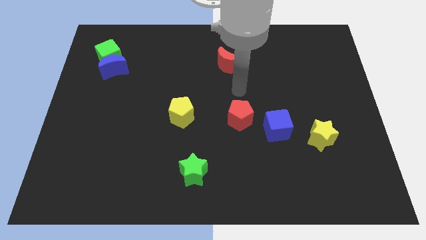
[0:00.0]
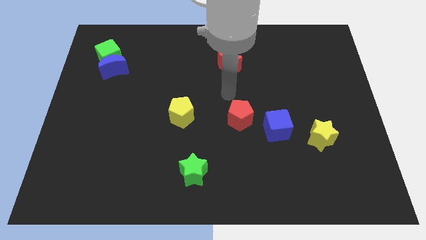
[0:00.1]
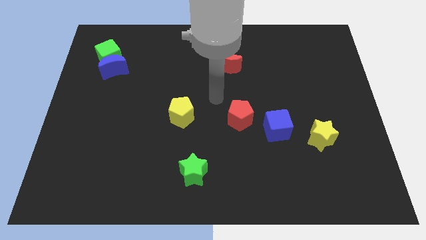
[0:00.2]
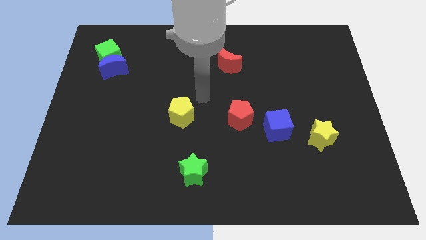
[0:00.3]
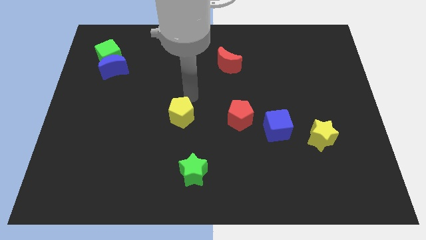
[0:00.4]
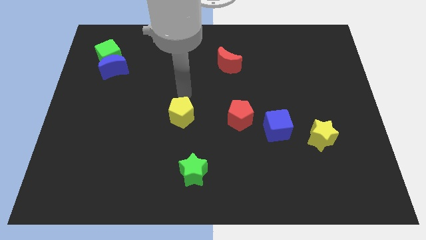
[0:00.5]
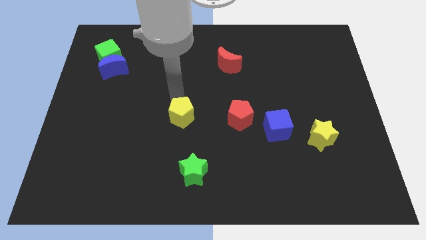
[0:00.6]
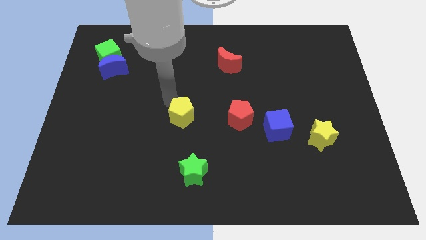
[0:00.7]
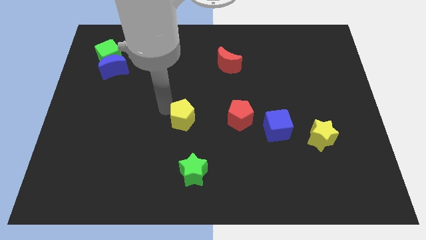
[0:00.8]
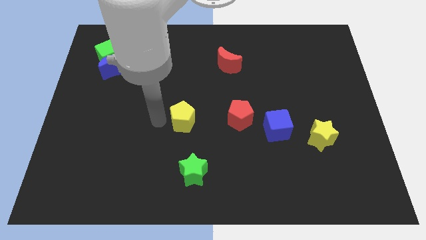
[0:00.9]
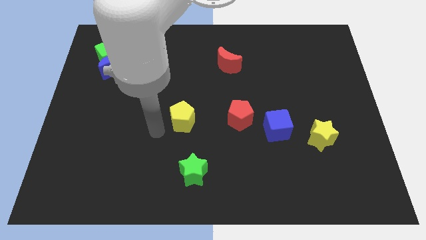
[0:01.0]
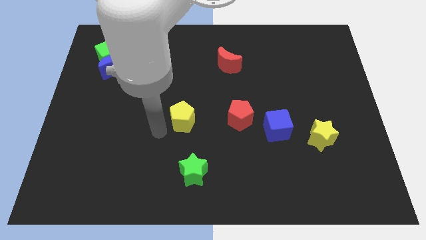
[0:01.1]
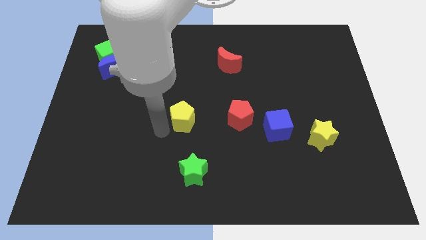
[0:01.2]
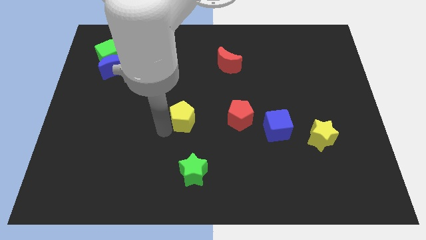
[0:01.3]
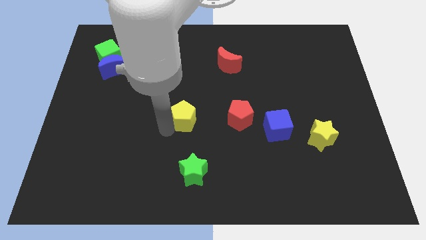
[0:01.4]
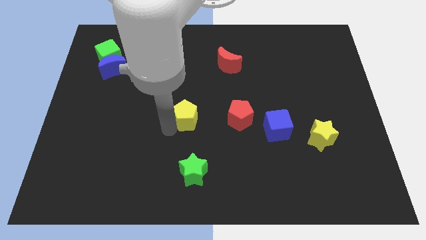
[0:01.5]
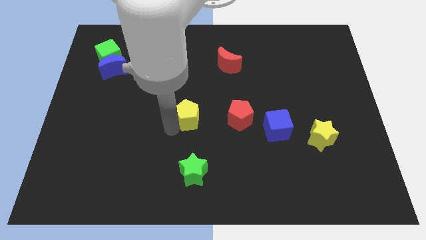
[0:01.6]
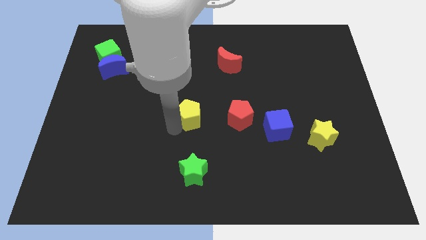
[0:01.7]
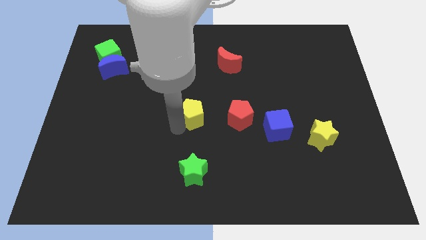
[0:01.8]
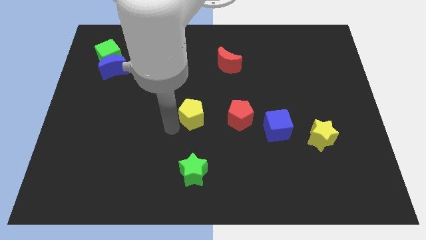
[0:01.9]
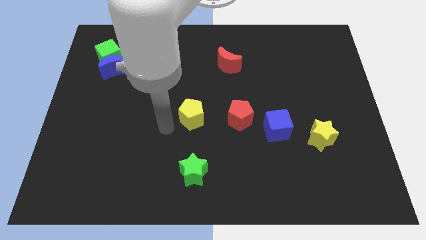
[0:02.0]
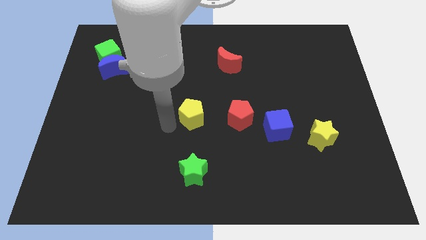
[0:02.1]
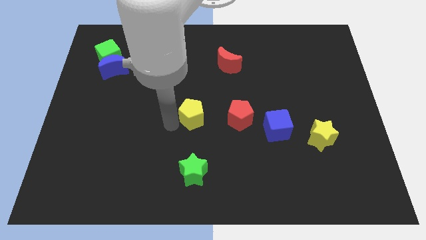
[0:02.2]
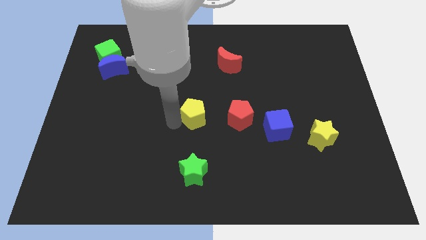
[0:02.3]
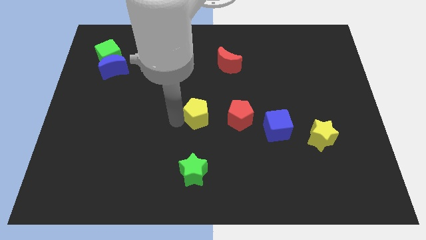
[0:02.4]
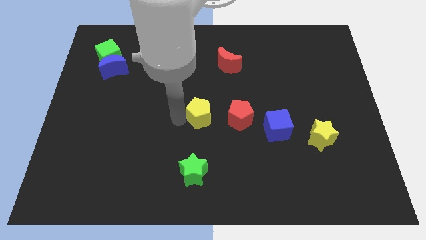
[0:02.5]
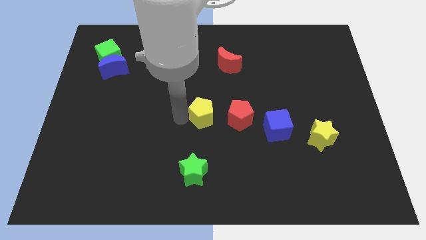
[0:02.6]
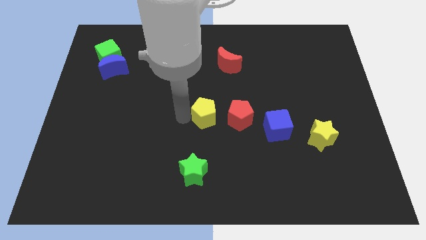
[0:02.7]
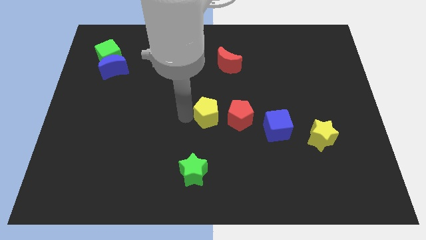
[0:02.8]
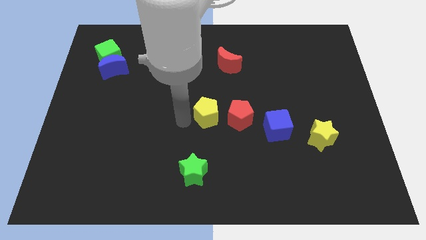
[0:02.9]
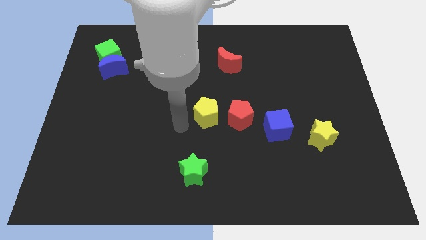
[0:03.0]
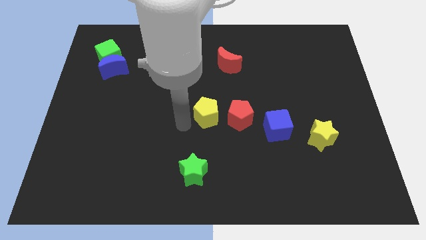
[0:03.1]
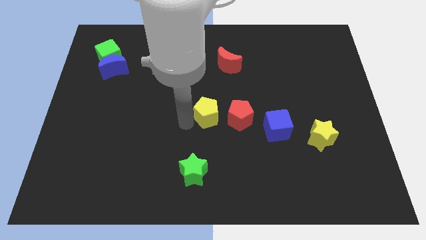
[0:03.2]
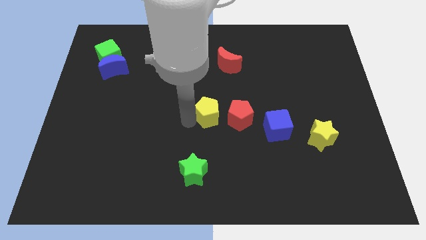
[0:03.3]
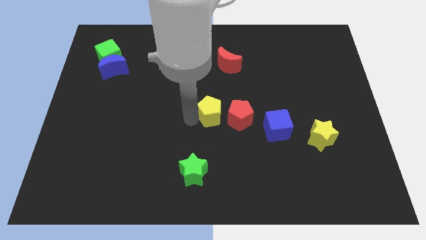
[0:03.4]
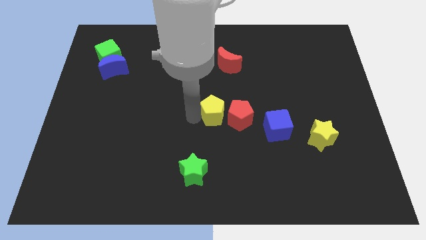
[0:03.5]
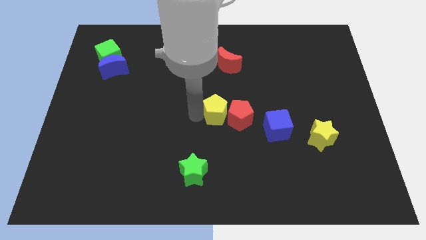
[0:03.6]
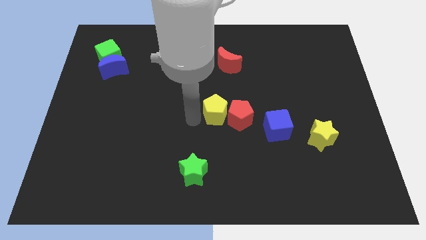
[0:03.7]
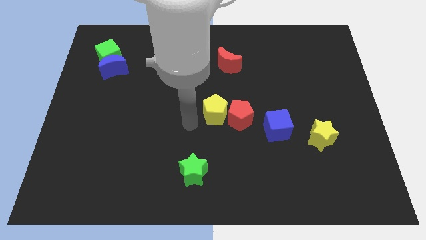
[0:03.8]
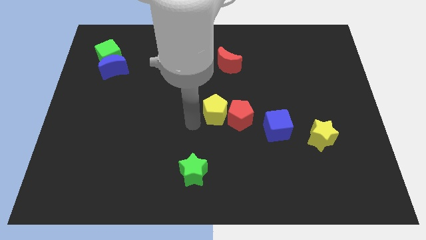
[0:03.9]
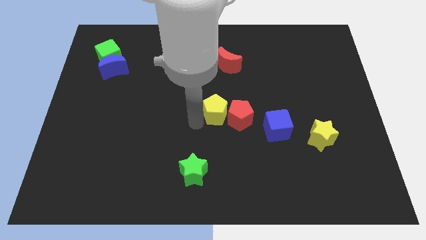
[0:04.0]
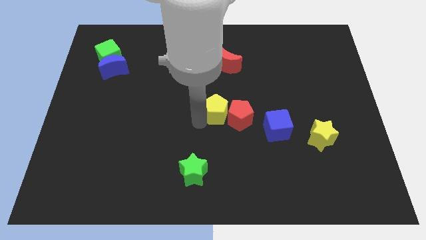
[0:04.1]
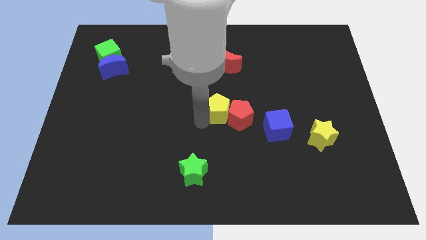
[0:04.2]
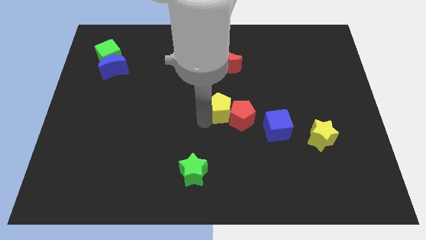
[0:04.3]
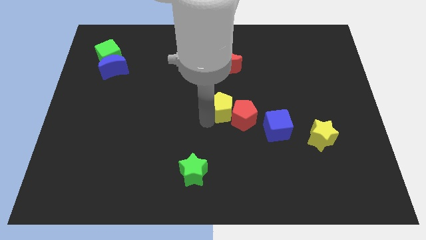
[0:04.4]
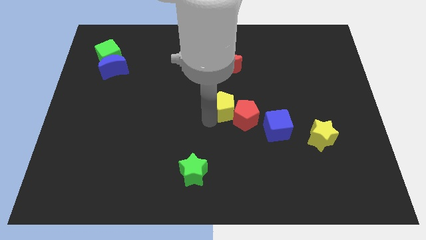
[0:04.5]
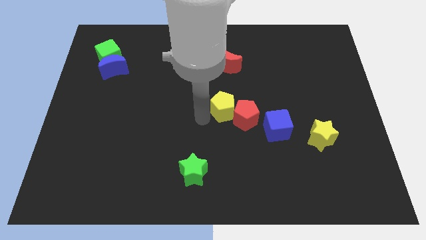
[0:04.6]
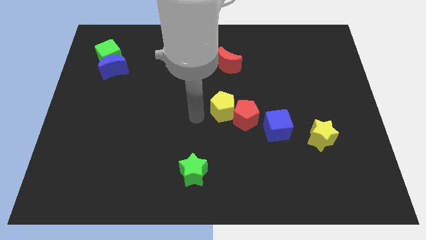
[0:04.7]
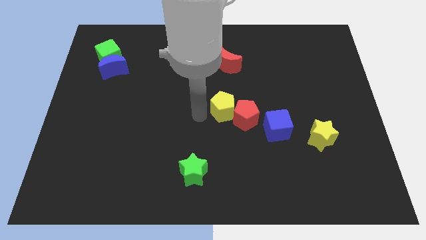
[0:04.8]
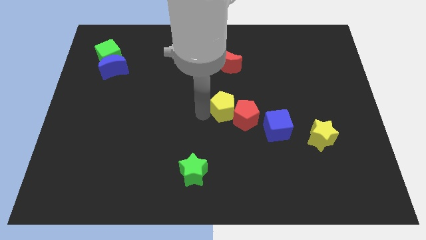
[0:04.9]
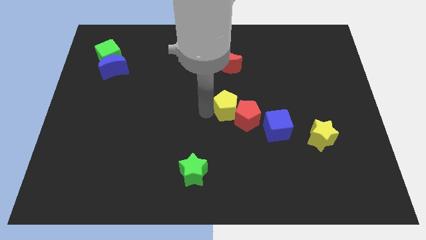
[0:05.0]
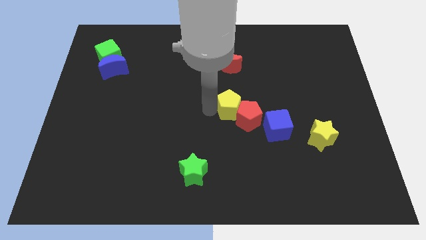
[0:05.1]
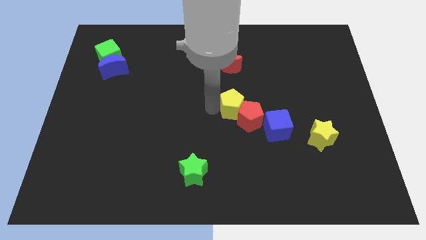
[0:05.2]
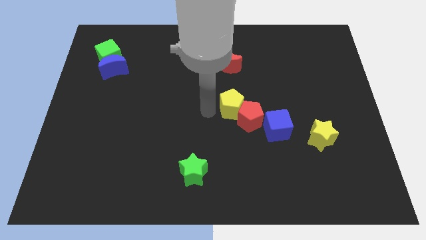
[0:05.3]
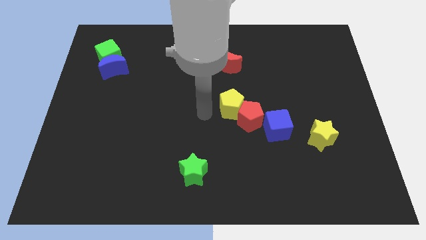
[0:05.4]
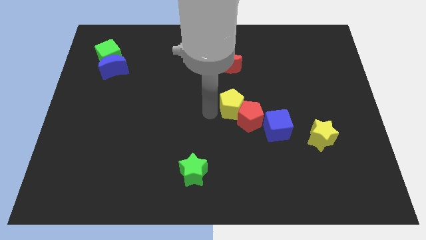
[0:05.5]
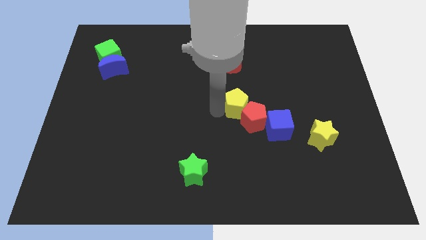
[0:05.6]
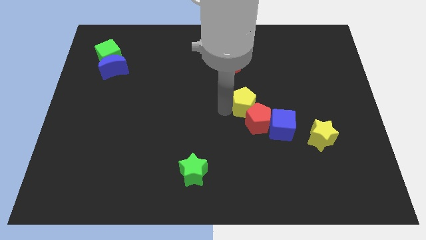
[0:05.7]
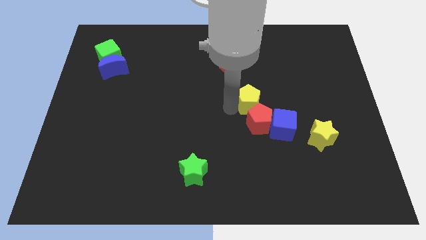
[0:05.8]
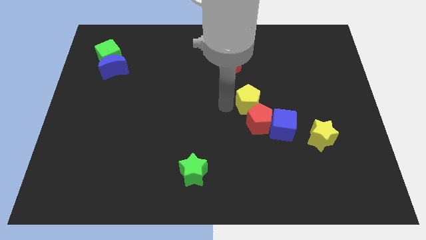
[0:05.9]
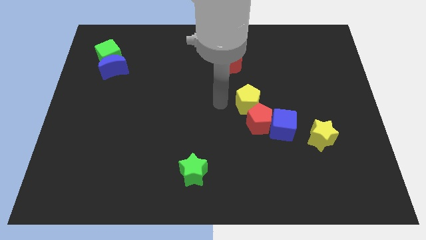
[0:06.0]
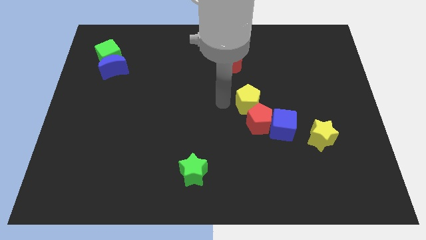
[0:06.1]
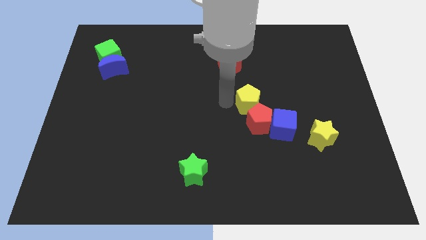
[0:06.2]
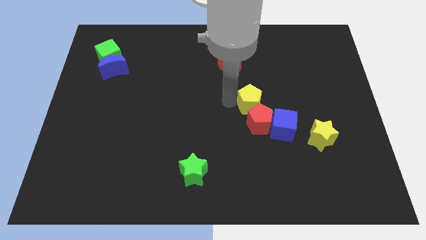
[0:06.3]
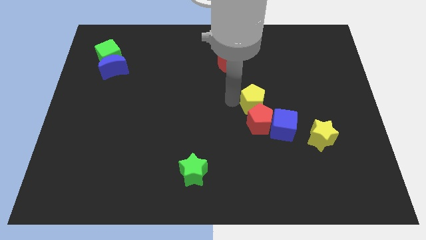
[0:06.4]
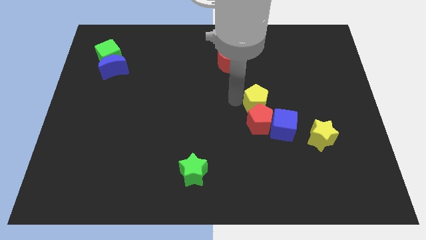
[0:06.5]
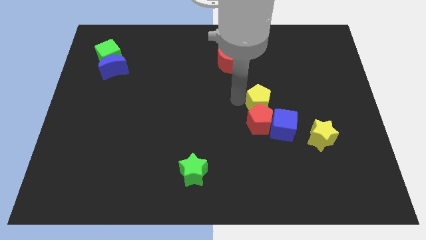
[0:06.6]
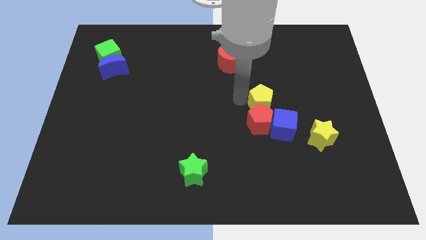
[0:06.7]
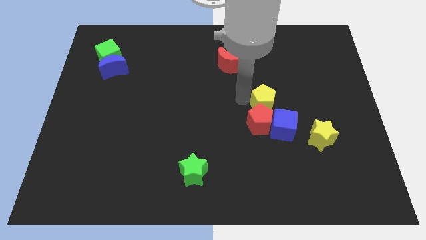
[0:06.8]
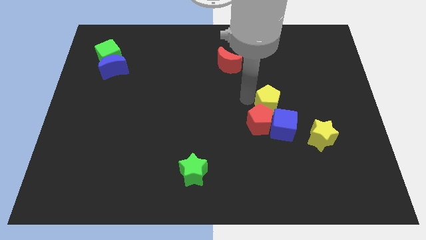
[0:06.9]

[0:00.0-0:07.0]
move the yellow pentagon right

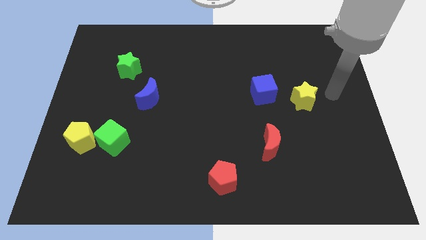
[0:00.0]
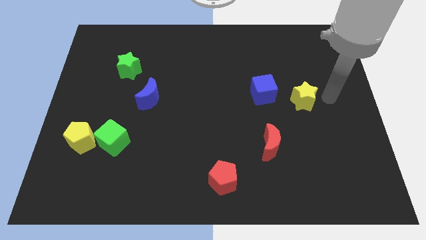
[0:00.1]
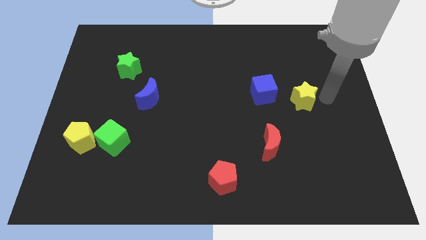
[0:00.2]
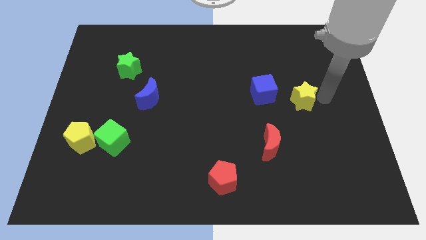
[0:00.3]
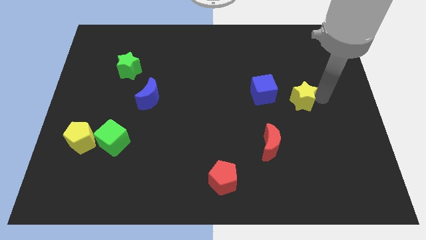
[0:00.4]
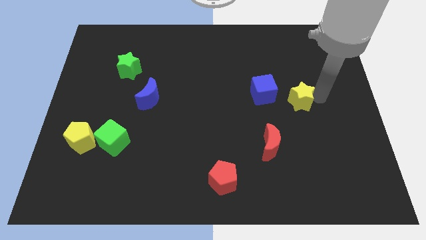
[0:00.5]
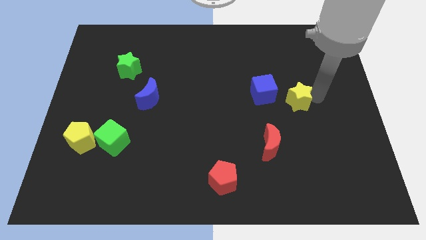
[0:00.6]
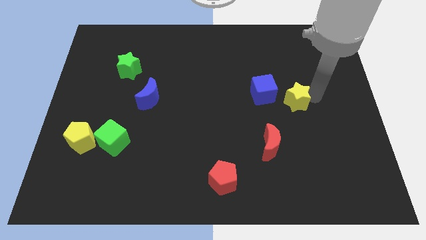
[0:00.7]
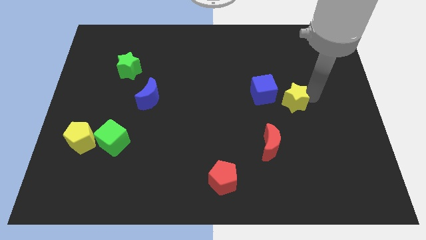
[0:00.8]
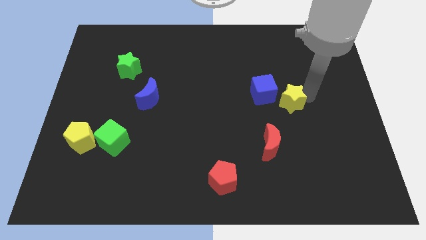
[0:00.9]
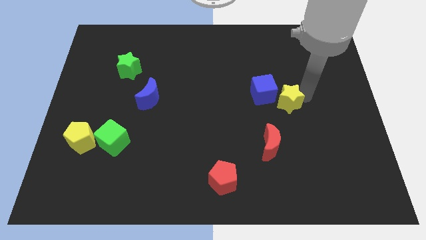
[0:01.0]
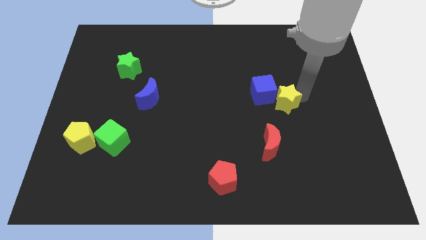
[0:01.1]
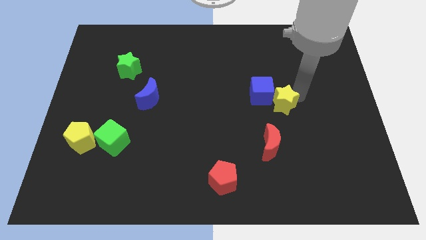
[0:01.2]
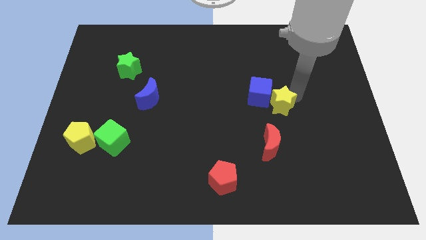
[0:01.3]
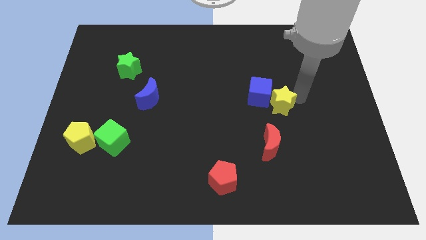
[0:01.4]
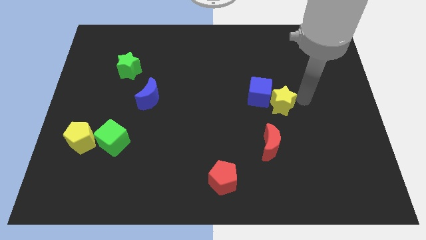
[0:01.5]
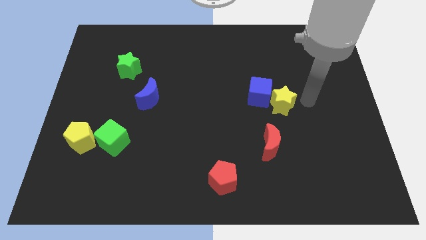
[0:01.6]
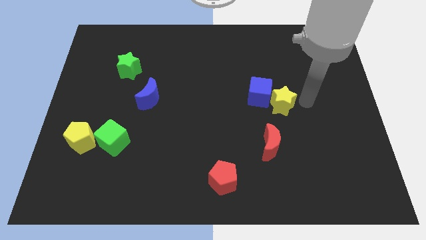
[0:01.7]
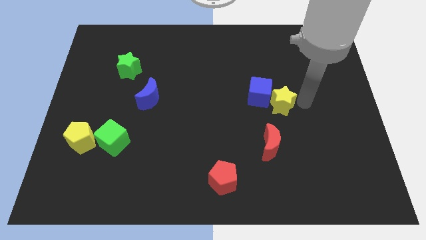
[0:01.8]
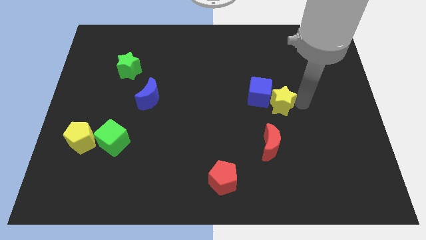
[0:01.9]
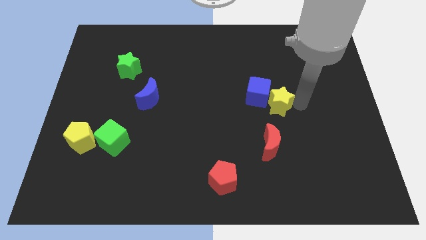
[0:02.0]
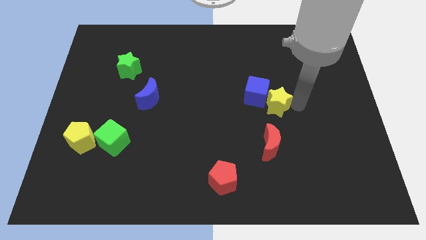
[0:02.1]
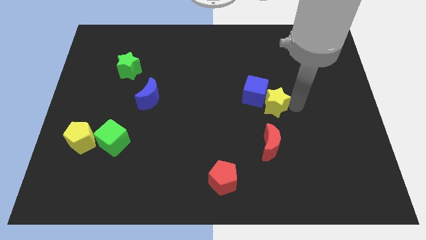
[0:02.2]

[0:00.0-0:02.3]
move the yellow star to the left slightly
